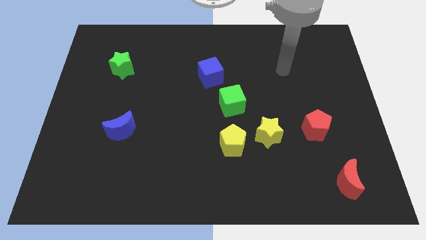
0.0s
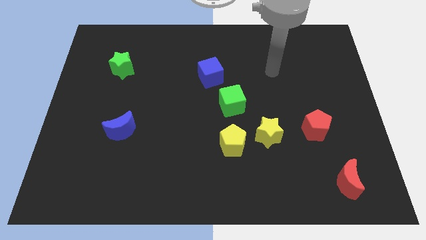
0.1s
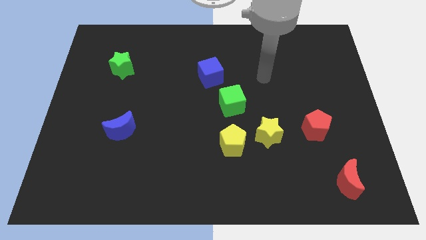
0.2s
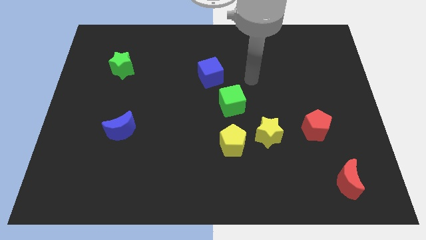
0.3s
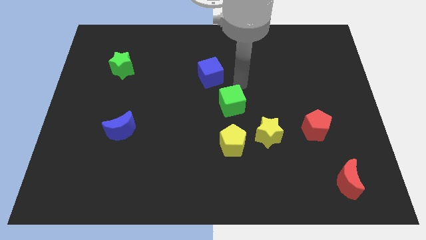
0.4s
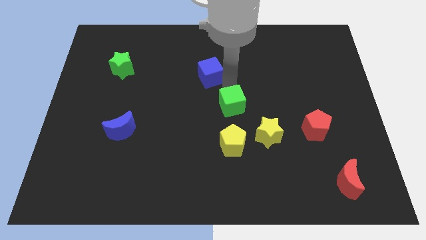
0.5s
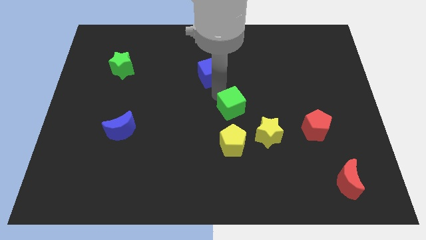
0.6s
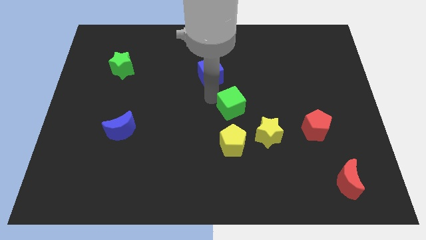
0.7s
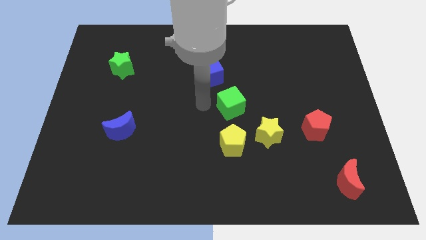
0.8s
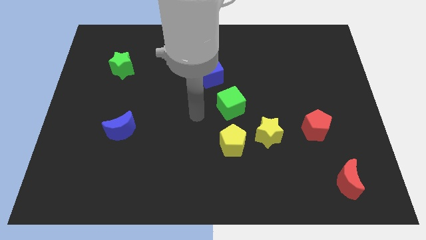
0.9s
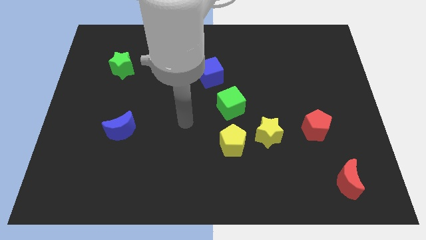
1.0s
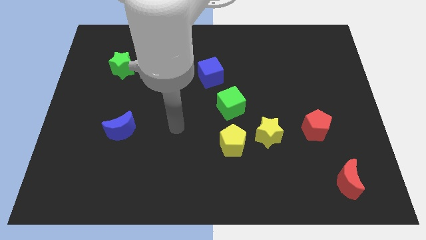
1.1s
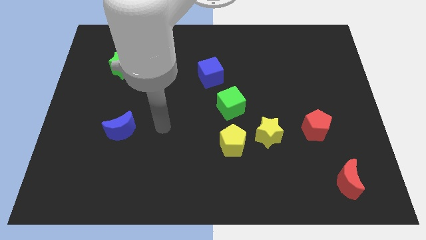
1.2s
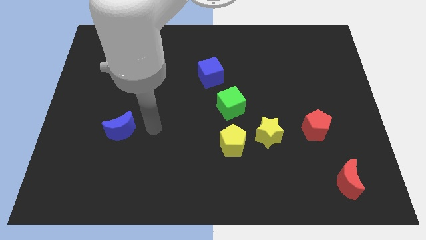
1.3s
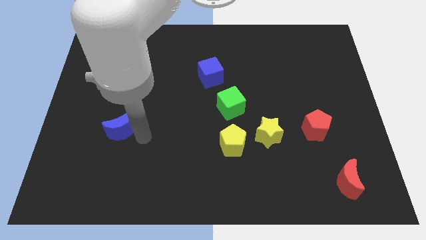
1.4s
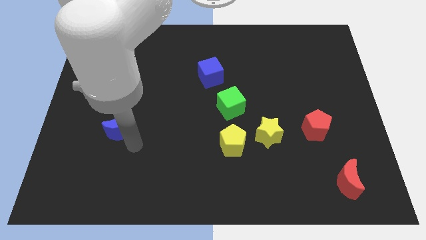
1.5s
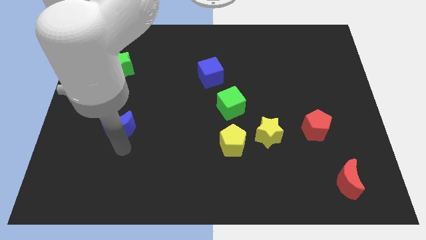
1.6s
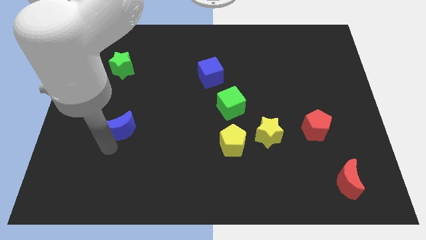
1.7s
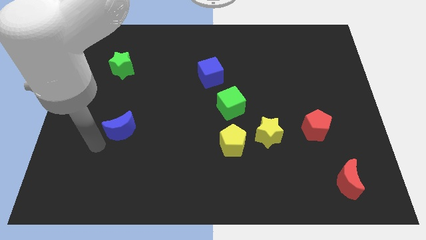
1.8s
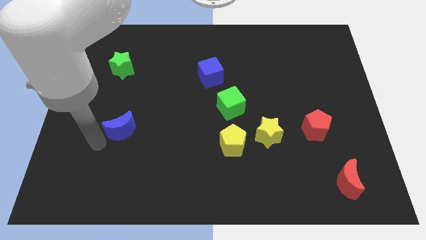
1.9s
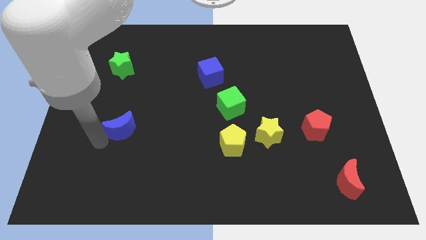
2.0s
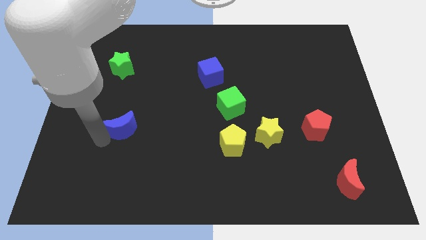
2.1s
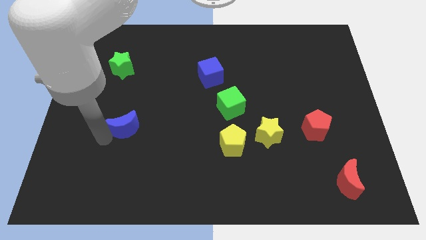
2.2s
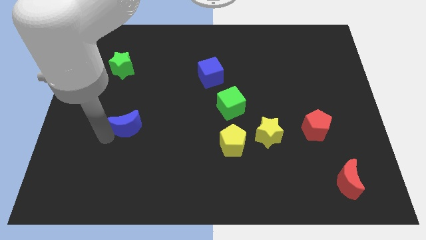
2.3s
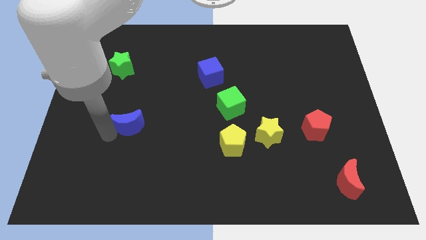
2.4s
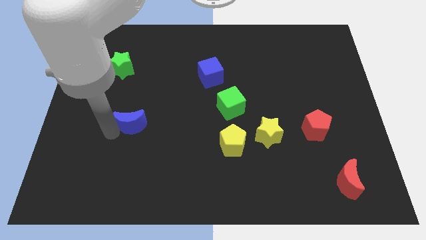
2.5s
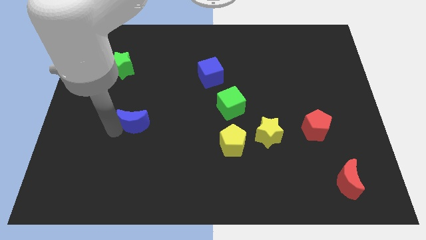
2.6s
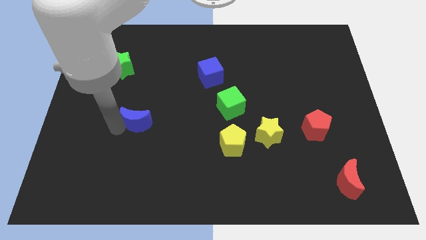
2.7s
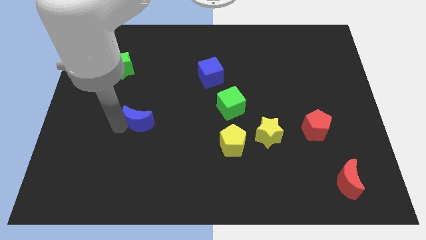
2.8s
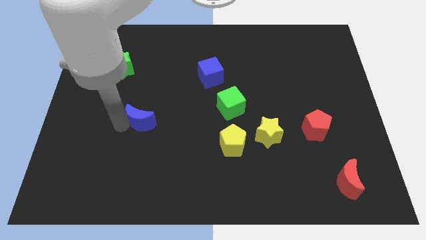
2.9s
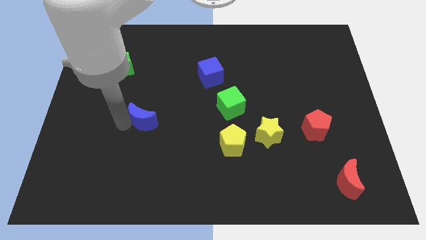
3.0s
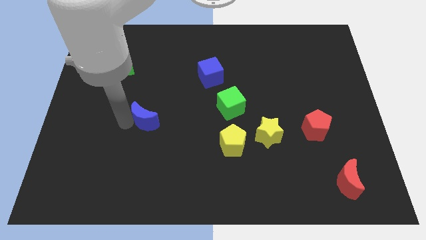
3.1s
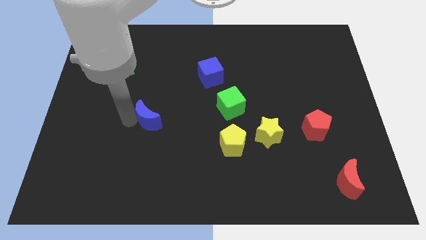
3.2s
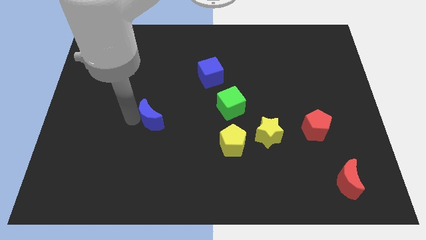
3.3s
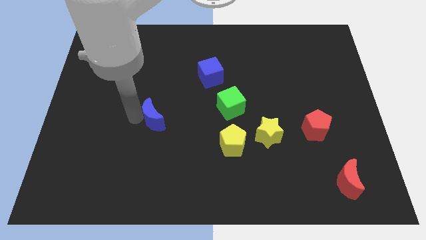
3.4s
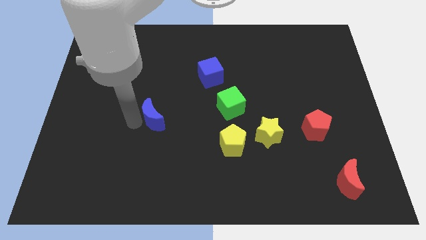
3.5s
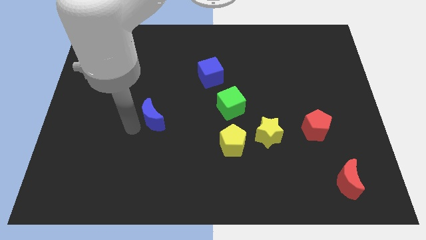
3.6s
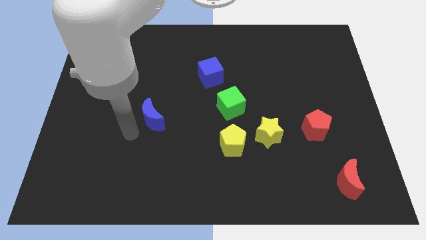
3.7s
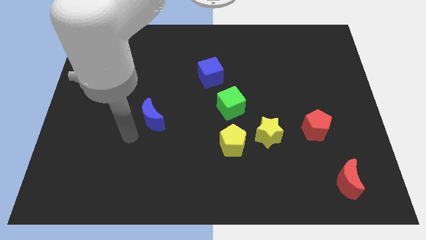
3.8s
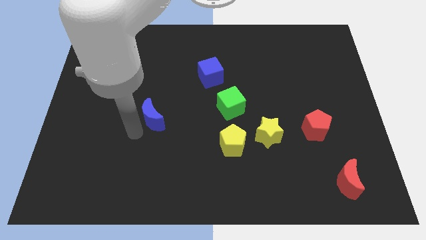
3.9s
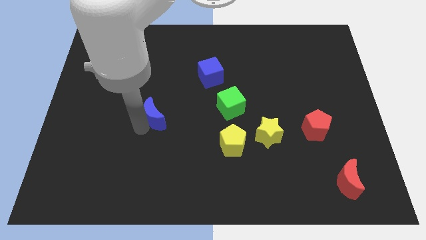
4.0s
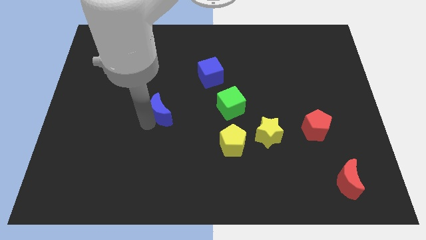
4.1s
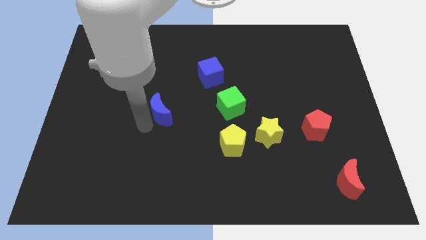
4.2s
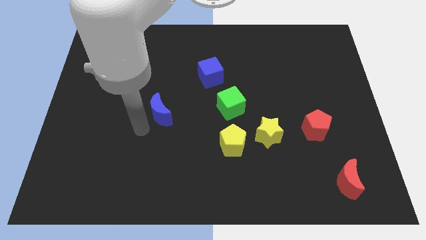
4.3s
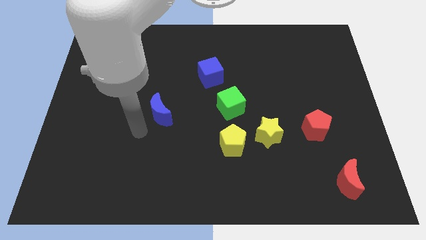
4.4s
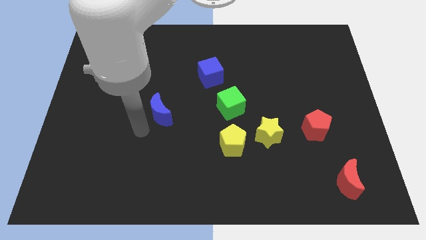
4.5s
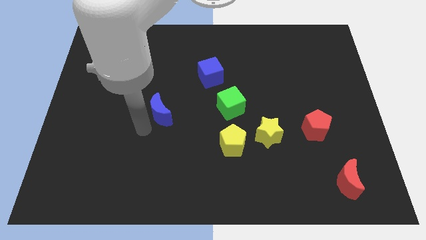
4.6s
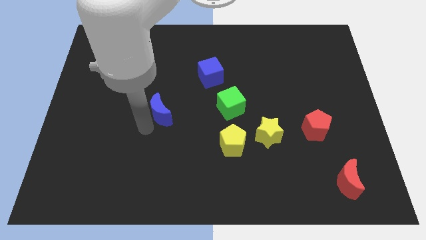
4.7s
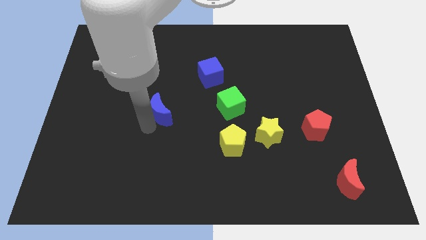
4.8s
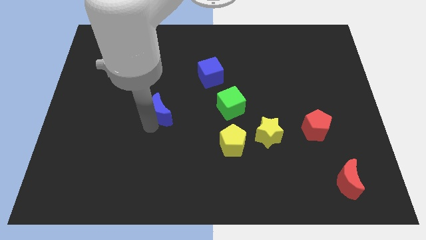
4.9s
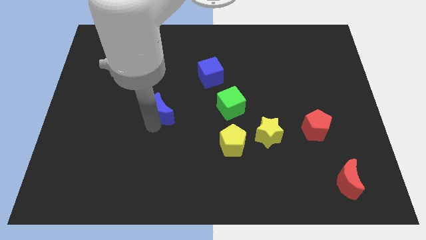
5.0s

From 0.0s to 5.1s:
put the blue moon to the middle
